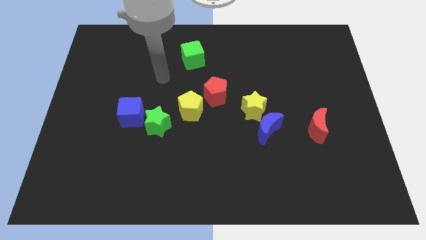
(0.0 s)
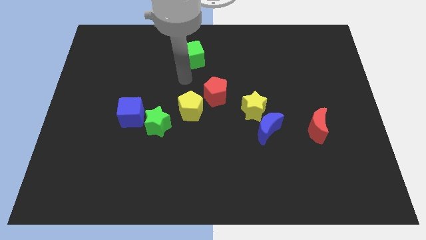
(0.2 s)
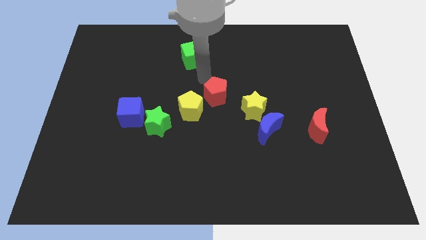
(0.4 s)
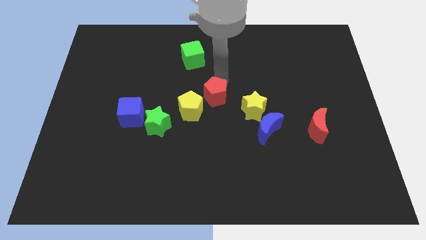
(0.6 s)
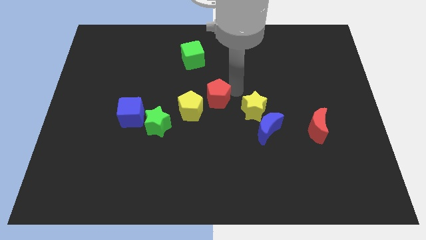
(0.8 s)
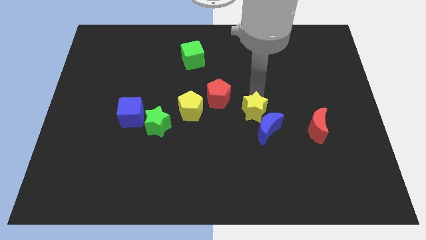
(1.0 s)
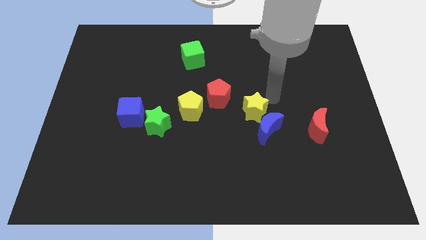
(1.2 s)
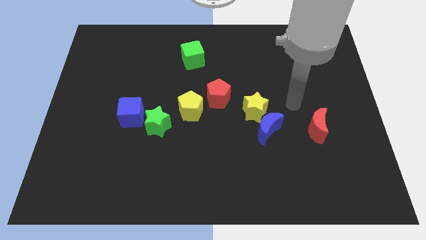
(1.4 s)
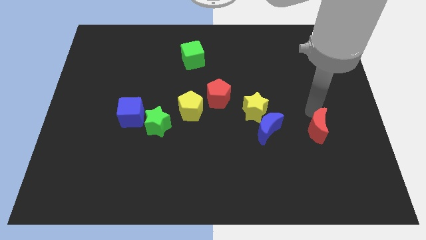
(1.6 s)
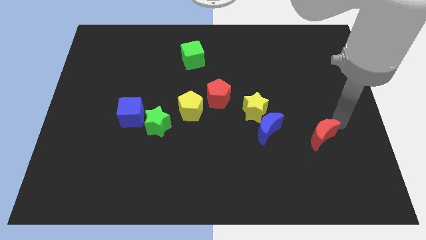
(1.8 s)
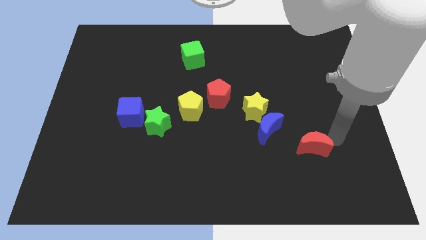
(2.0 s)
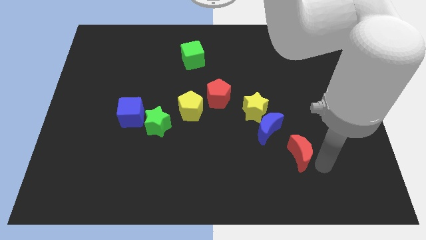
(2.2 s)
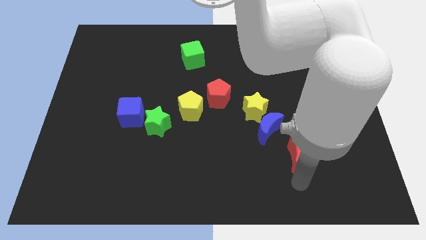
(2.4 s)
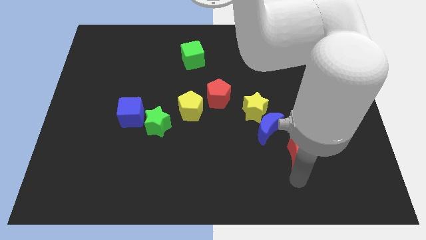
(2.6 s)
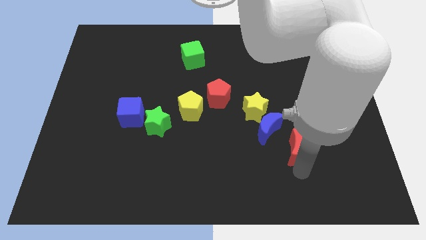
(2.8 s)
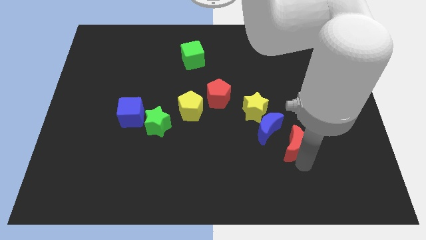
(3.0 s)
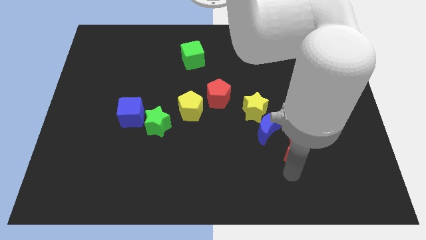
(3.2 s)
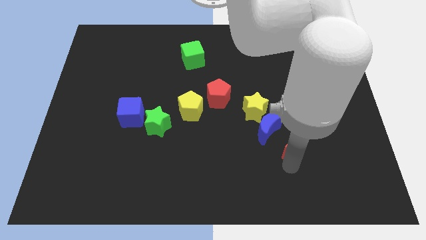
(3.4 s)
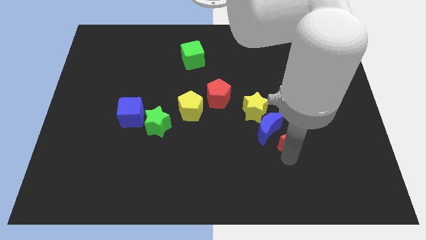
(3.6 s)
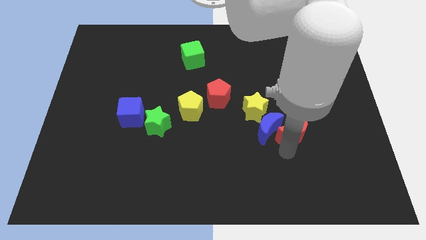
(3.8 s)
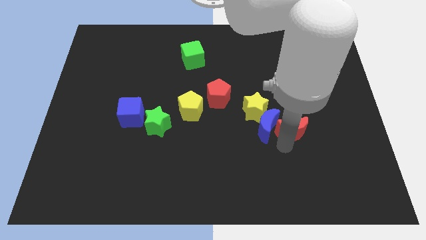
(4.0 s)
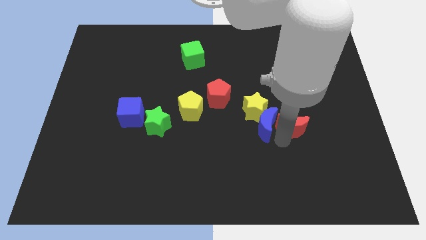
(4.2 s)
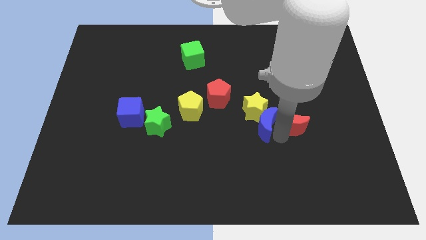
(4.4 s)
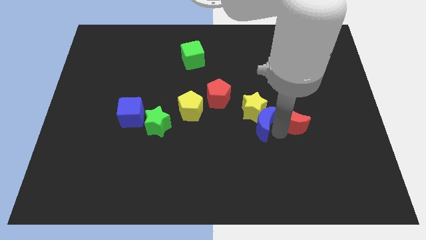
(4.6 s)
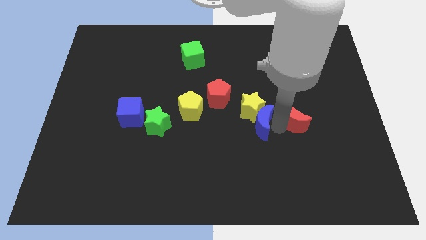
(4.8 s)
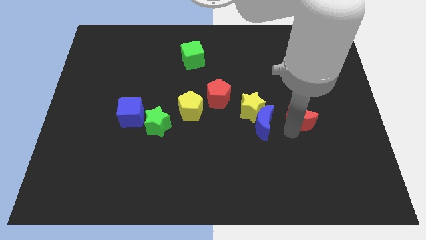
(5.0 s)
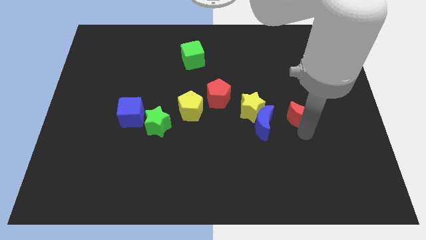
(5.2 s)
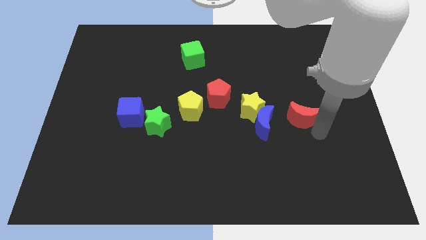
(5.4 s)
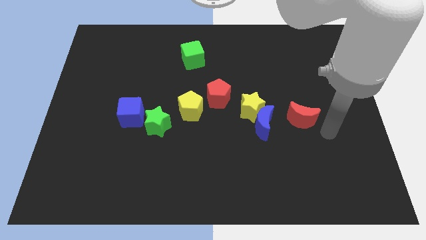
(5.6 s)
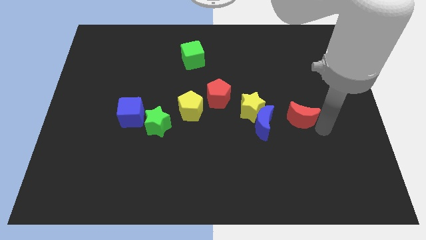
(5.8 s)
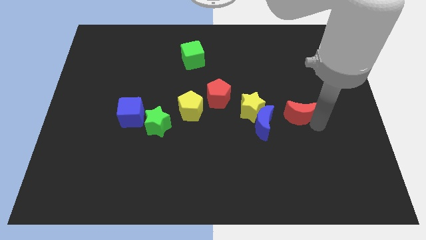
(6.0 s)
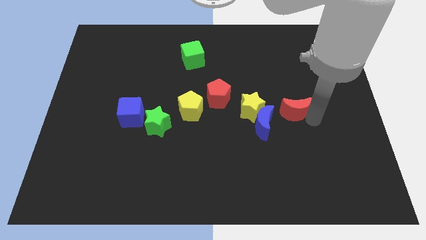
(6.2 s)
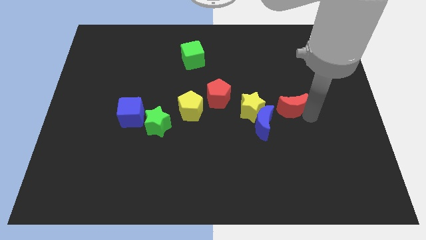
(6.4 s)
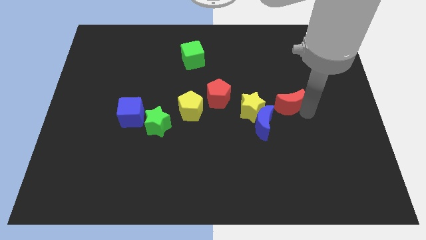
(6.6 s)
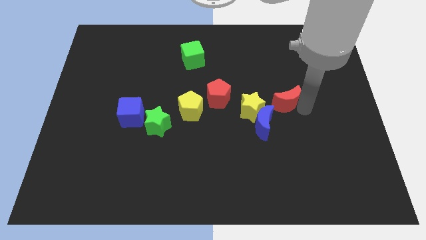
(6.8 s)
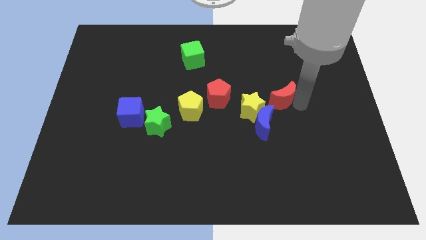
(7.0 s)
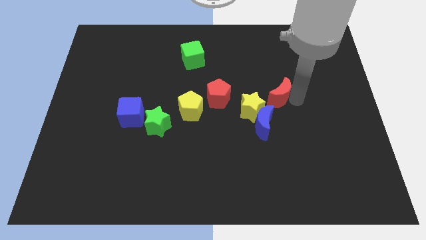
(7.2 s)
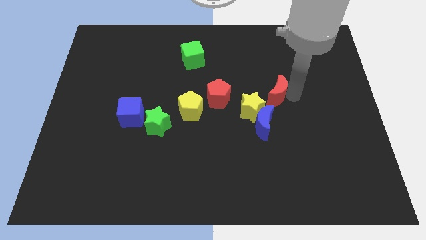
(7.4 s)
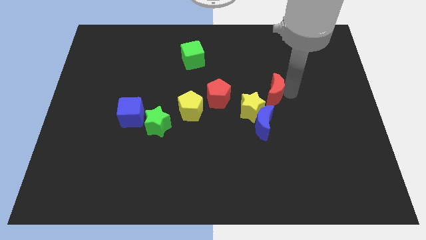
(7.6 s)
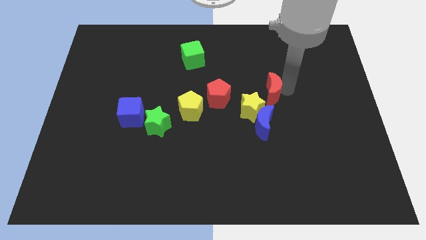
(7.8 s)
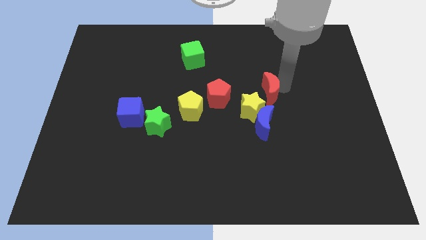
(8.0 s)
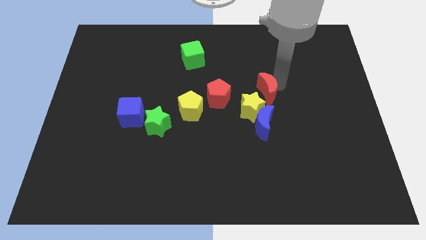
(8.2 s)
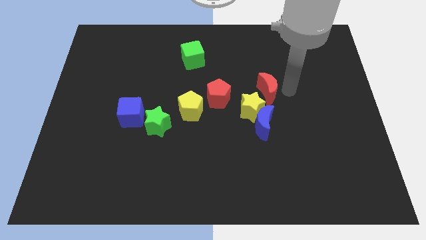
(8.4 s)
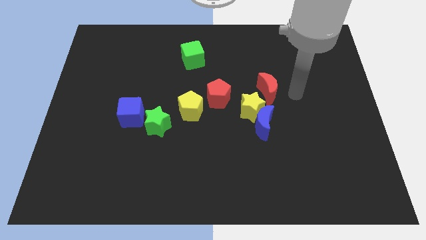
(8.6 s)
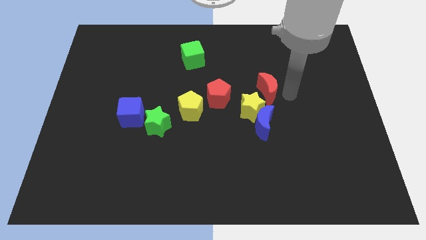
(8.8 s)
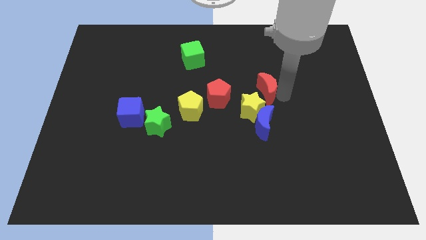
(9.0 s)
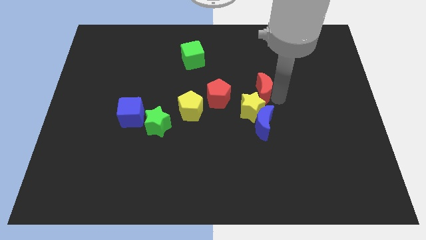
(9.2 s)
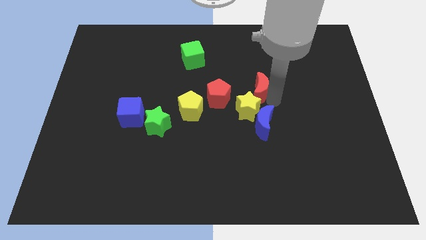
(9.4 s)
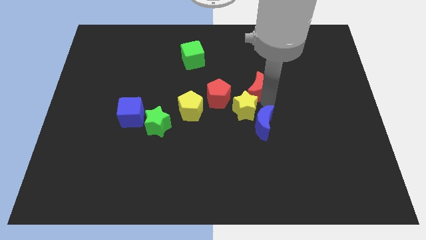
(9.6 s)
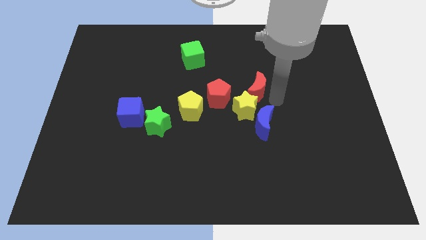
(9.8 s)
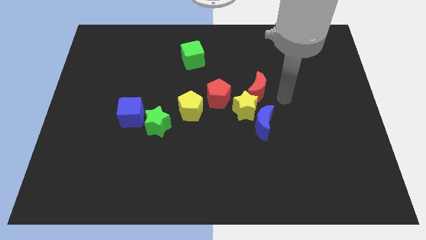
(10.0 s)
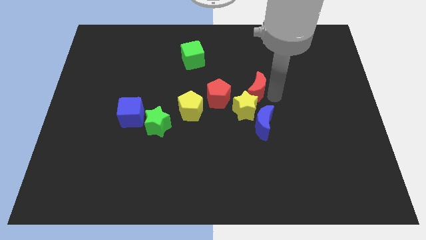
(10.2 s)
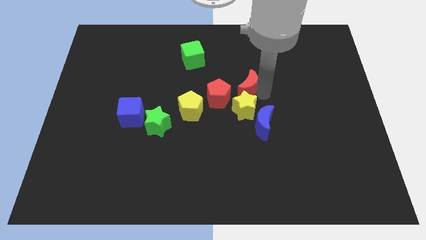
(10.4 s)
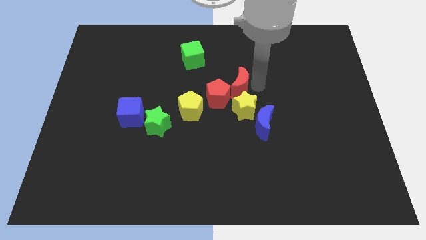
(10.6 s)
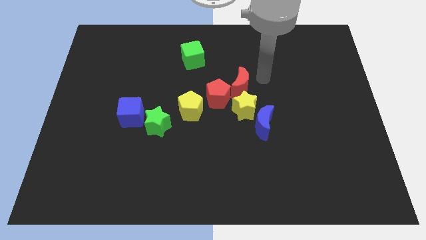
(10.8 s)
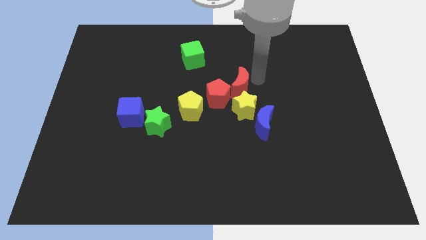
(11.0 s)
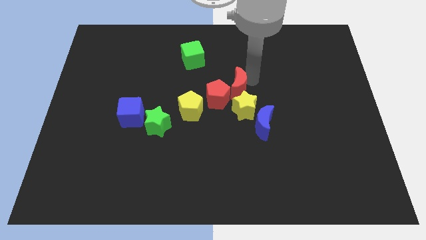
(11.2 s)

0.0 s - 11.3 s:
move the red moon towards the red pentagon

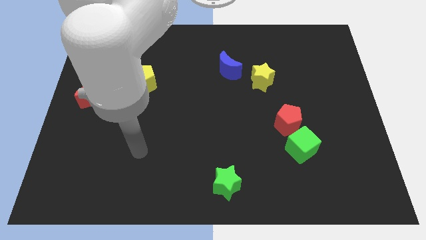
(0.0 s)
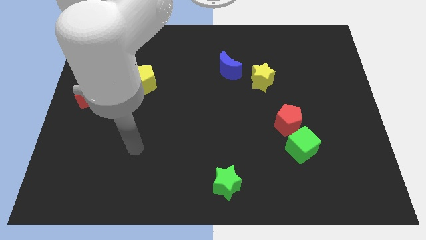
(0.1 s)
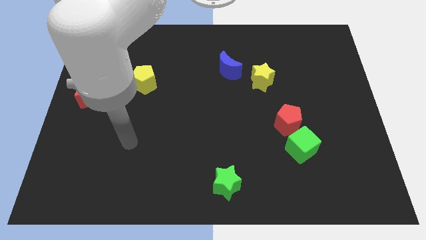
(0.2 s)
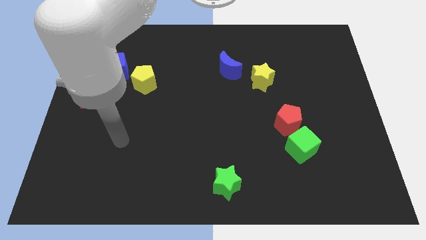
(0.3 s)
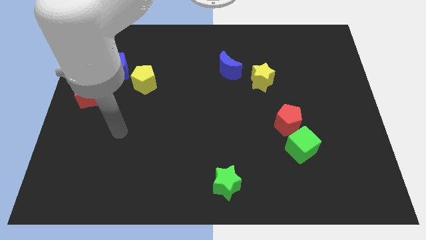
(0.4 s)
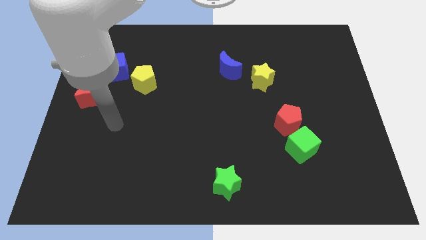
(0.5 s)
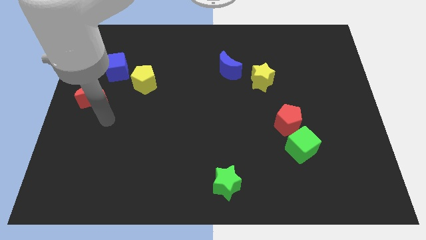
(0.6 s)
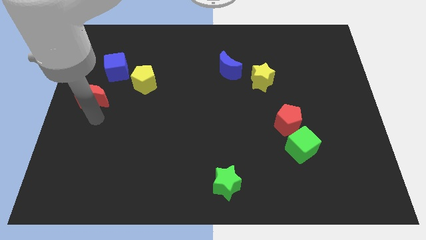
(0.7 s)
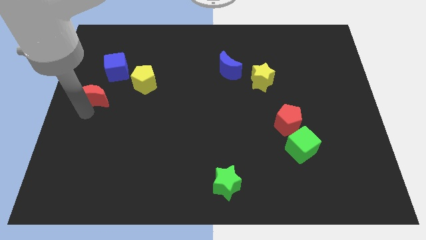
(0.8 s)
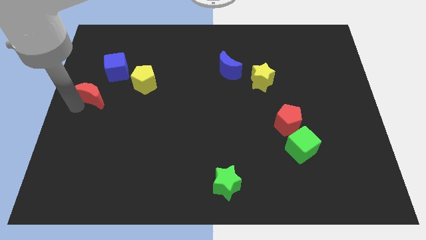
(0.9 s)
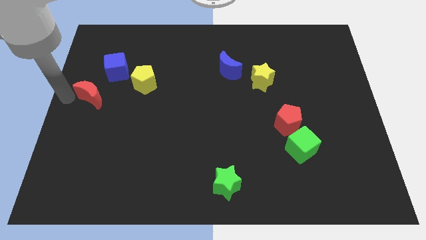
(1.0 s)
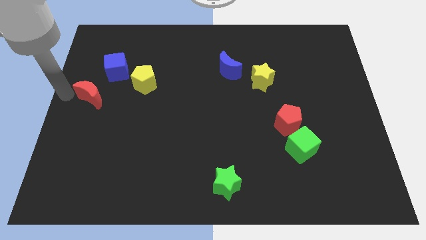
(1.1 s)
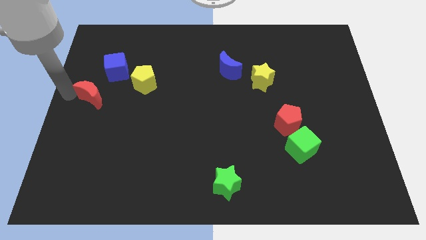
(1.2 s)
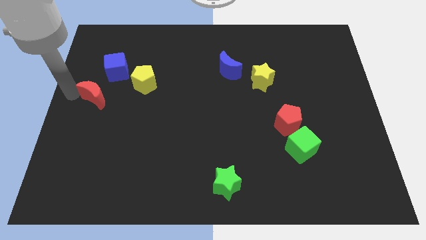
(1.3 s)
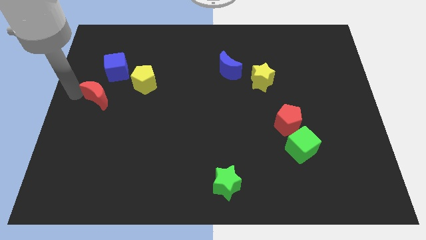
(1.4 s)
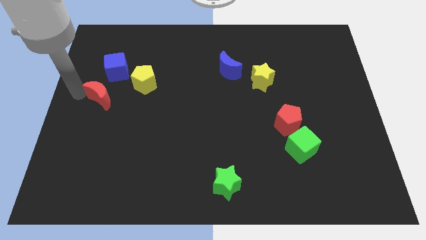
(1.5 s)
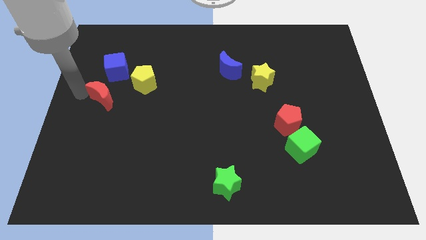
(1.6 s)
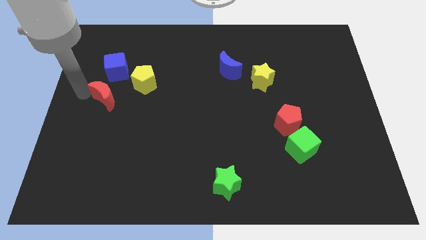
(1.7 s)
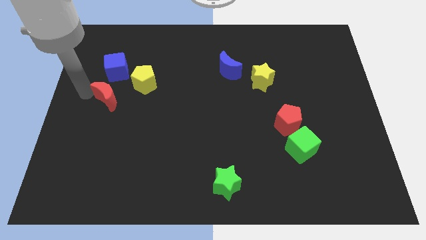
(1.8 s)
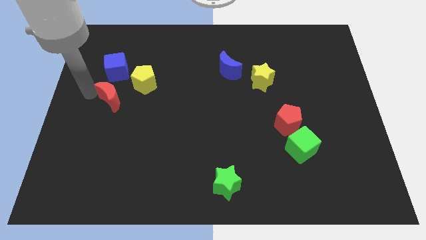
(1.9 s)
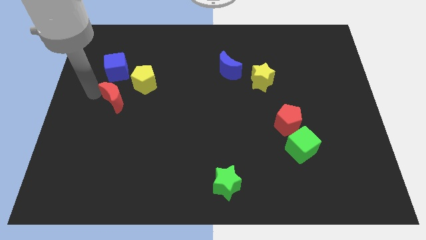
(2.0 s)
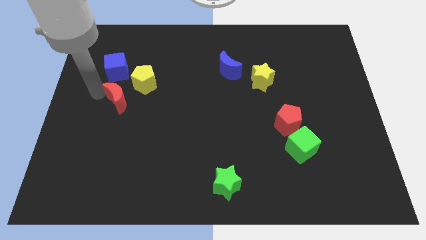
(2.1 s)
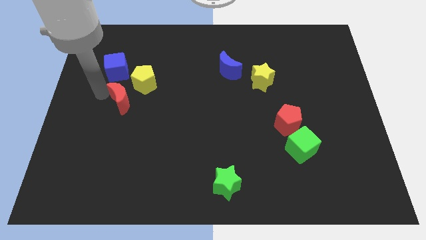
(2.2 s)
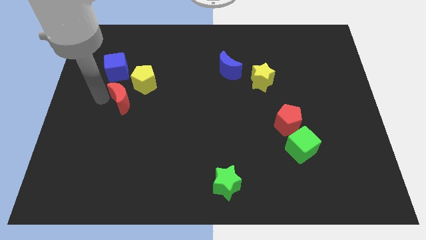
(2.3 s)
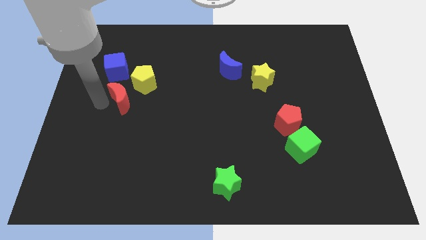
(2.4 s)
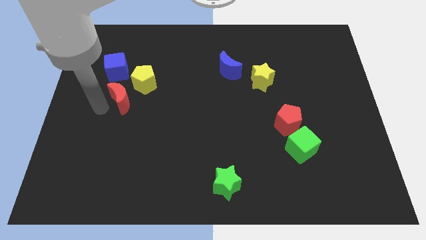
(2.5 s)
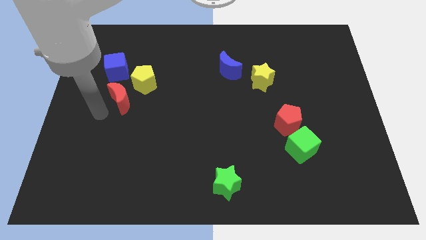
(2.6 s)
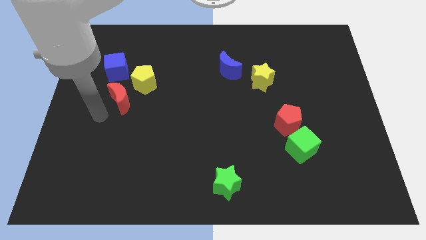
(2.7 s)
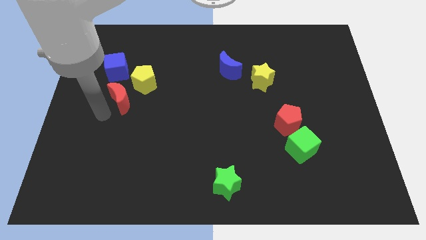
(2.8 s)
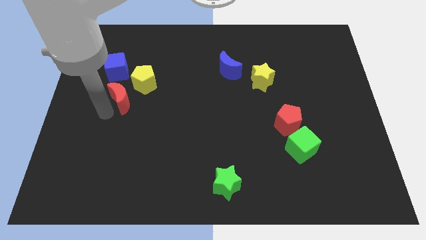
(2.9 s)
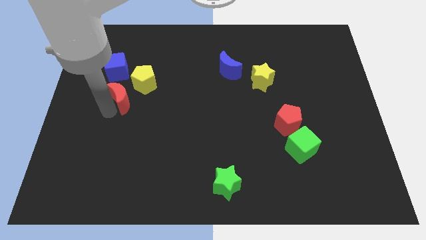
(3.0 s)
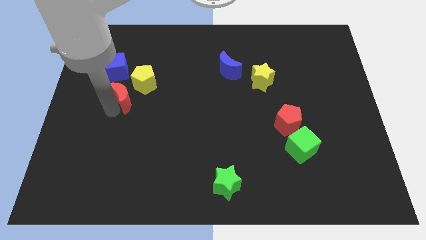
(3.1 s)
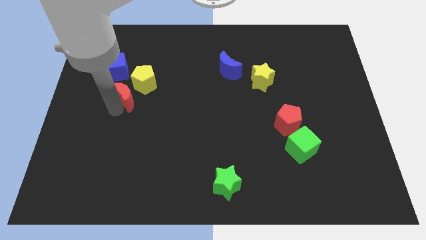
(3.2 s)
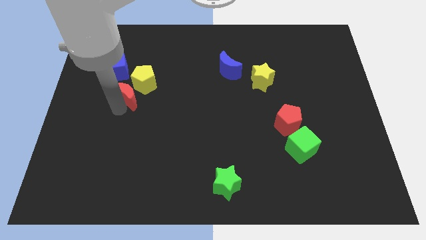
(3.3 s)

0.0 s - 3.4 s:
slide the red moon close to the yellow pentagon
